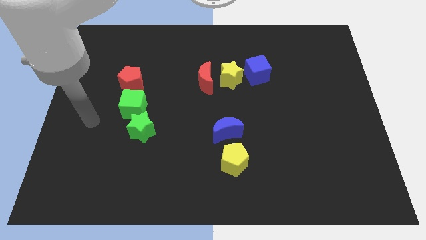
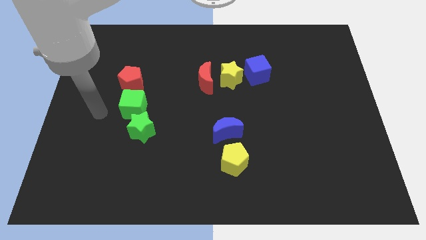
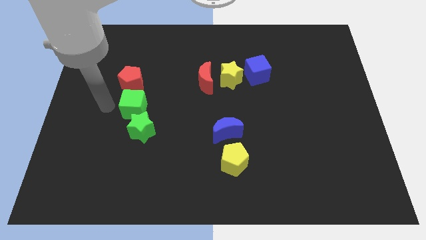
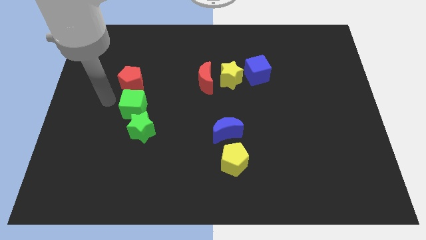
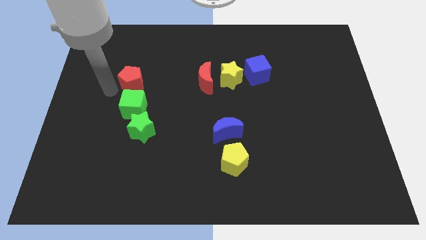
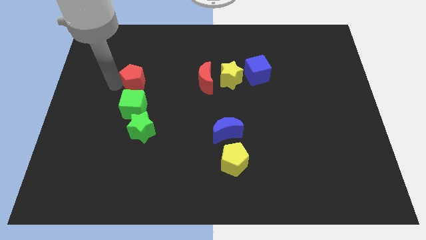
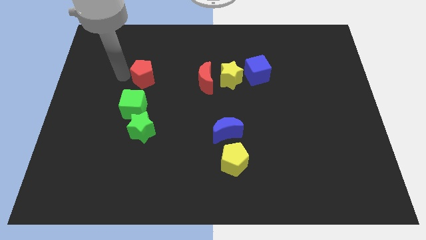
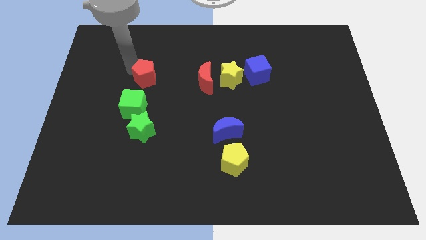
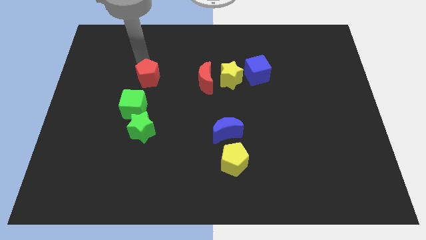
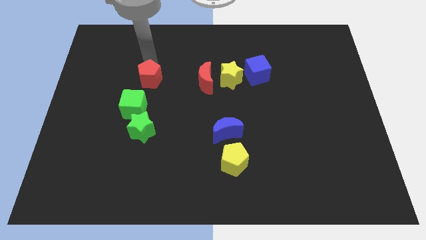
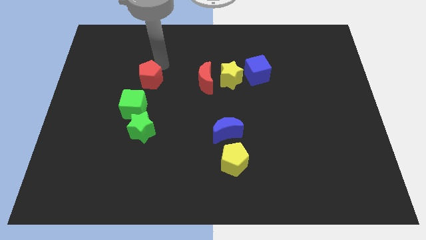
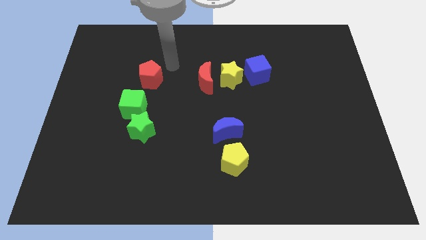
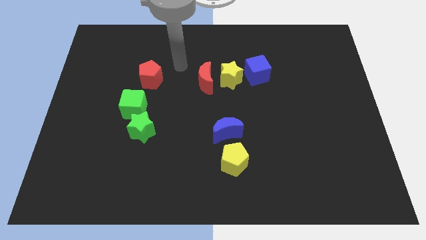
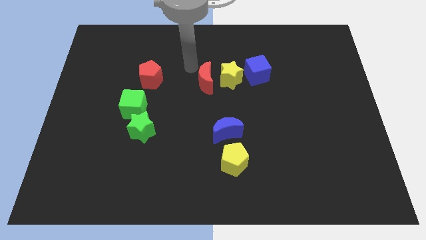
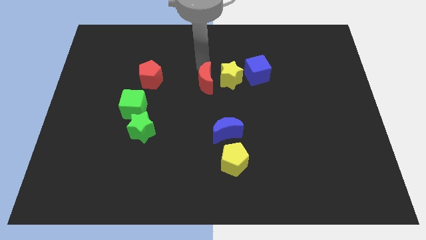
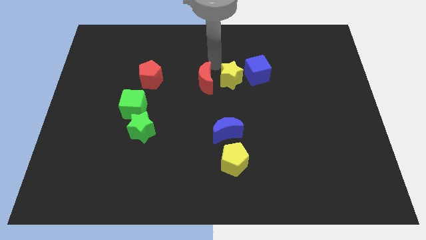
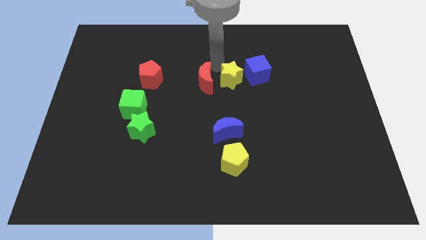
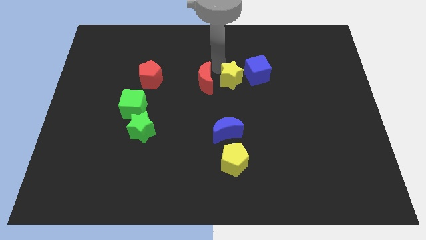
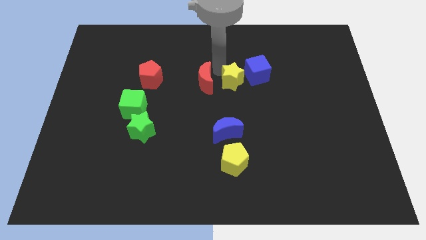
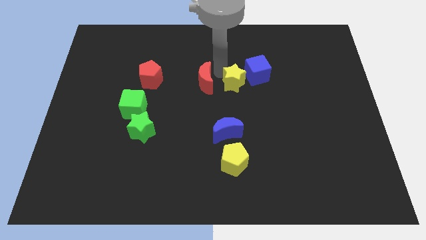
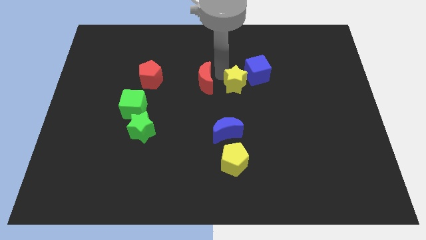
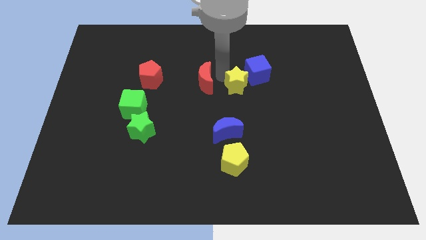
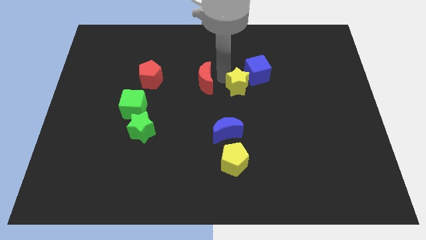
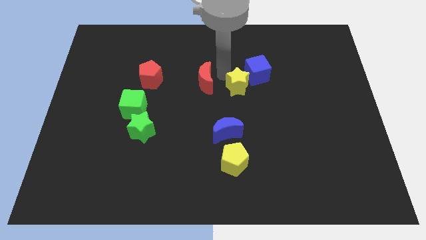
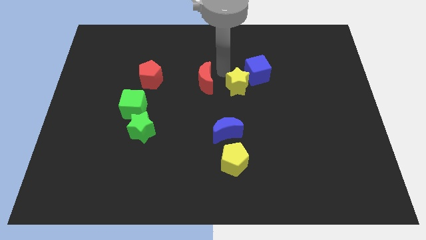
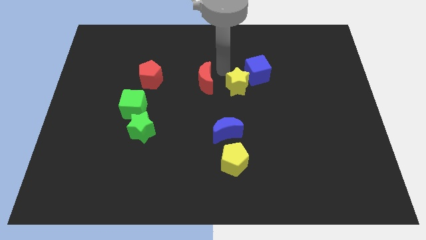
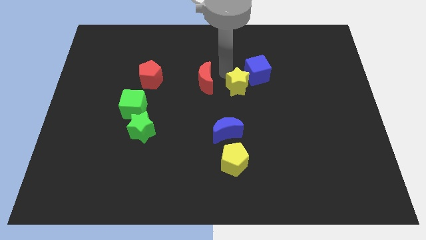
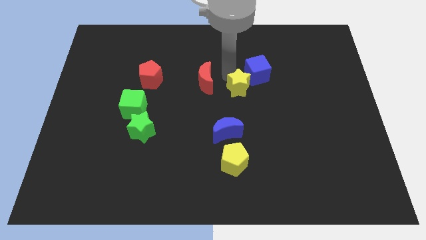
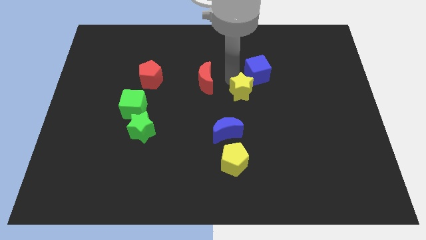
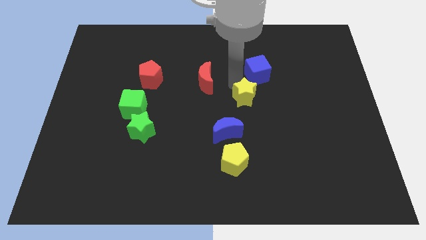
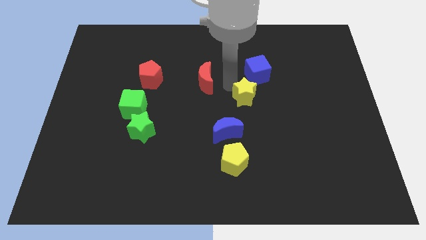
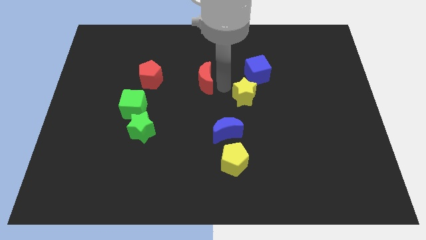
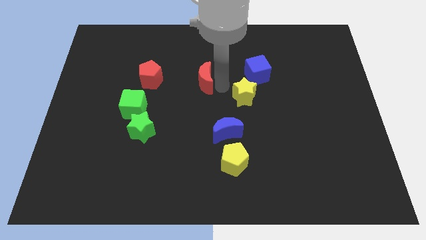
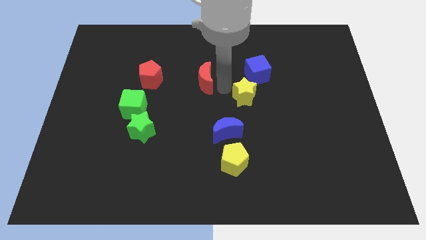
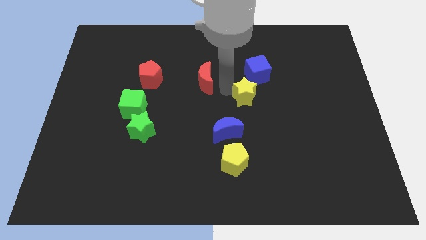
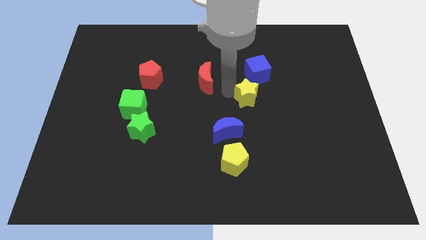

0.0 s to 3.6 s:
push the yellow star diagonally down and right slightly

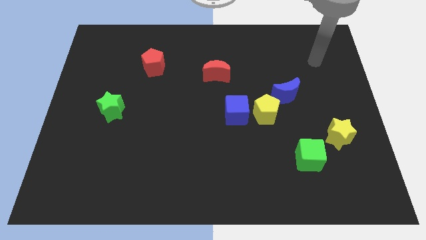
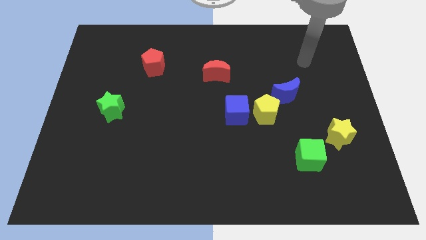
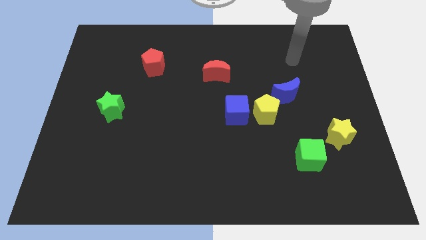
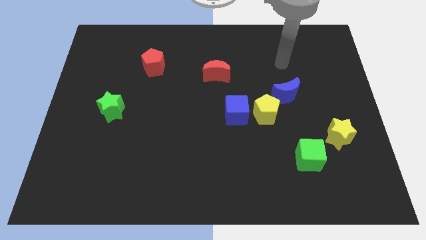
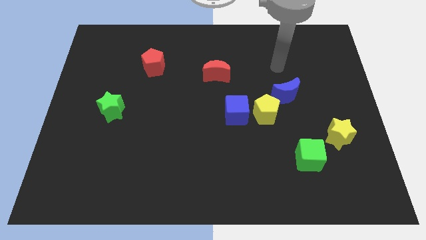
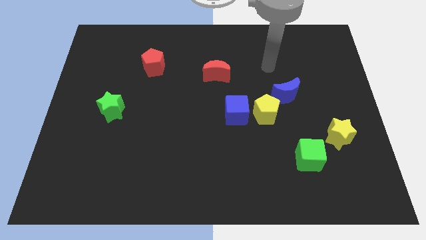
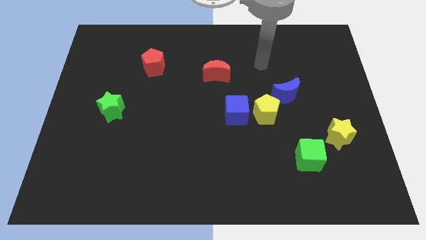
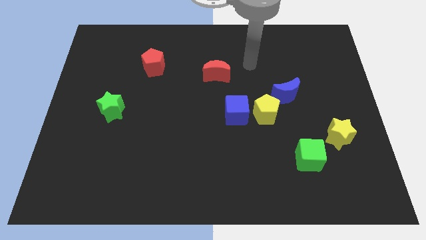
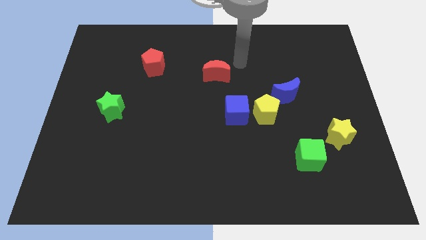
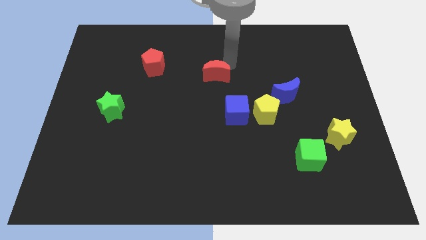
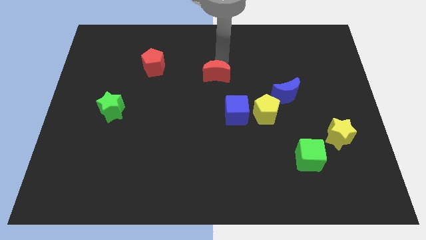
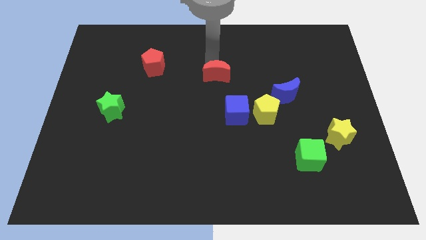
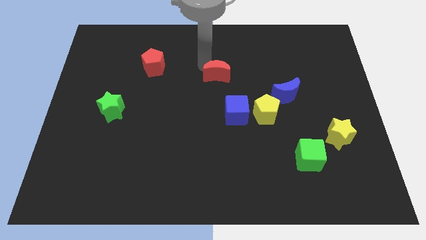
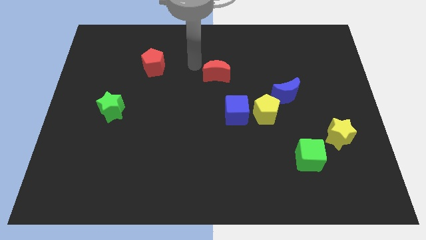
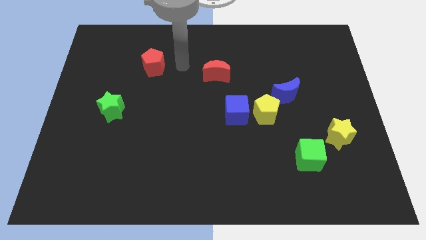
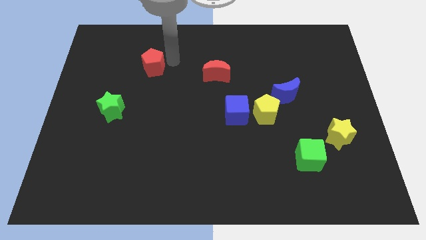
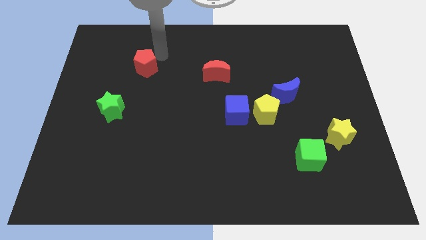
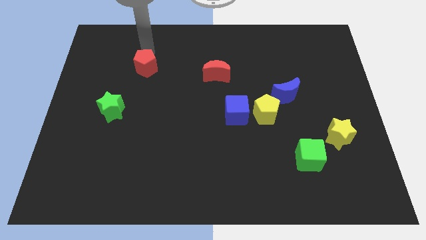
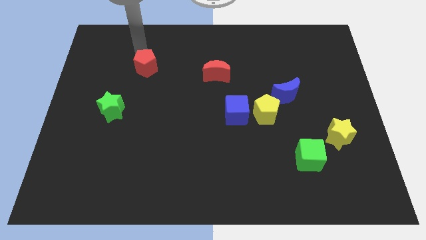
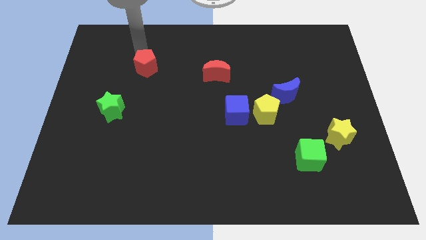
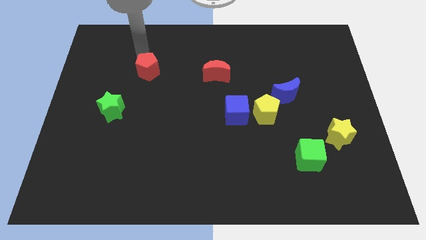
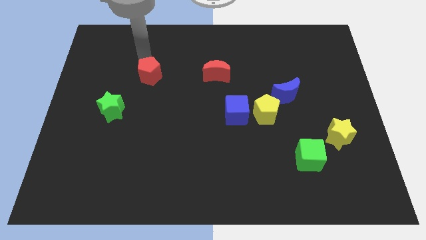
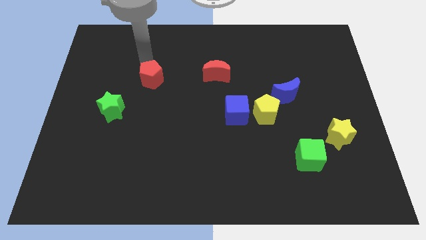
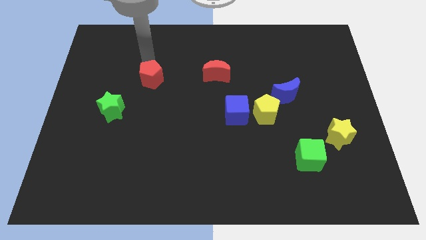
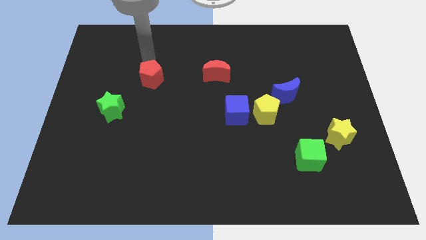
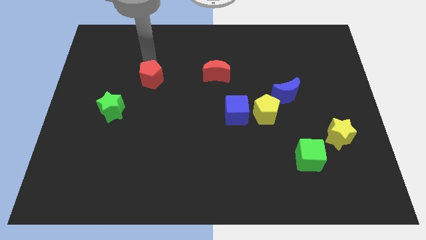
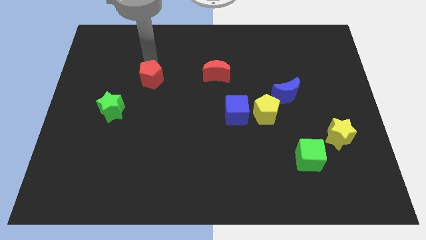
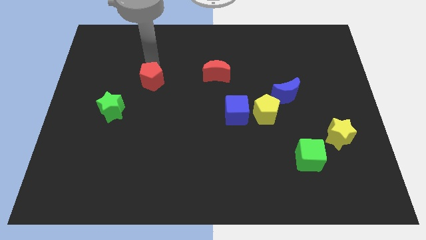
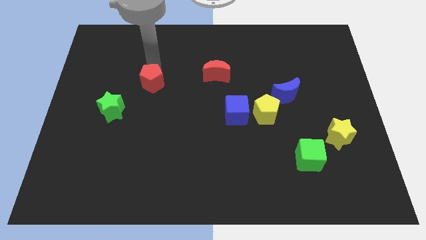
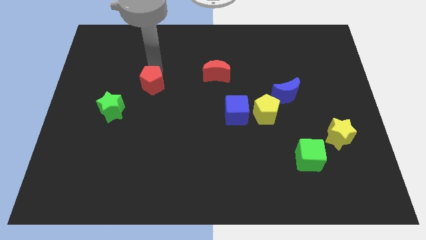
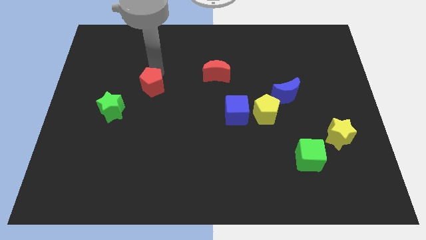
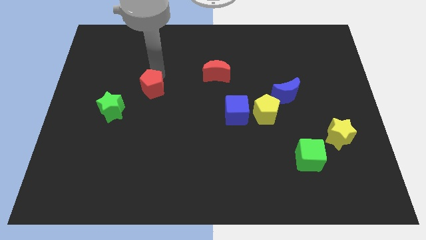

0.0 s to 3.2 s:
push the red pentagon a little down

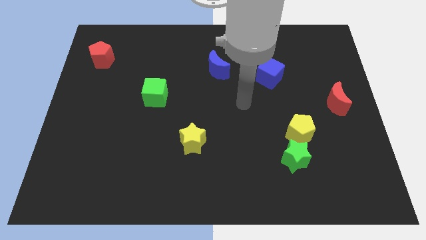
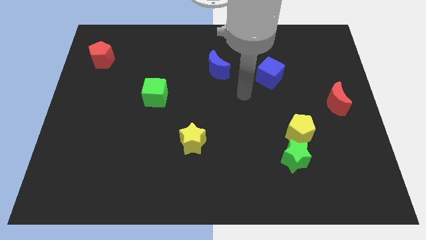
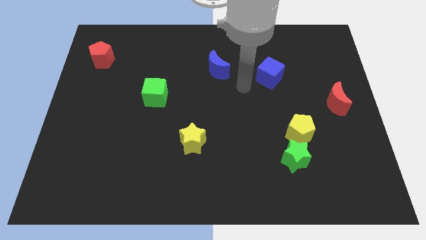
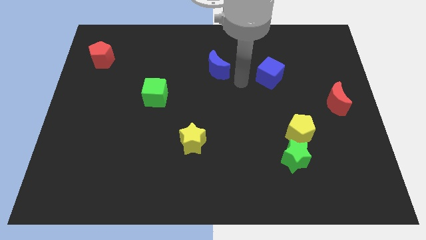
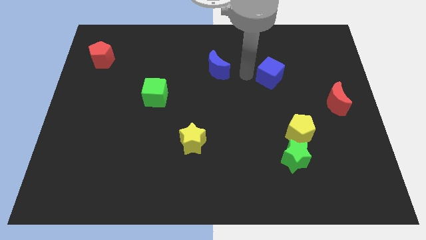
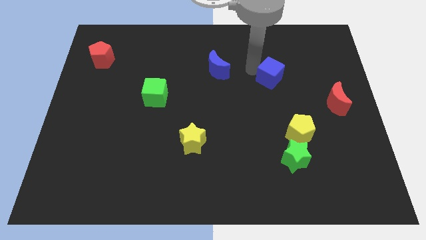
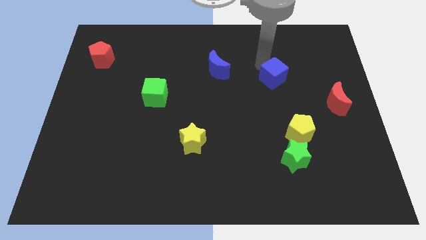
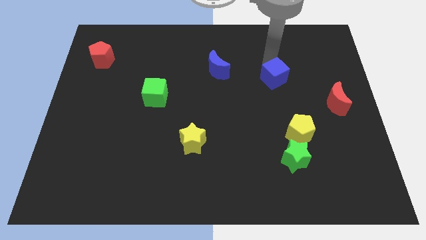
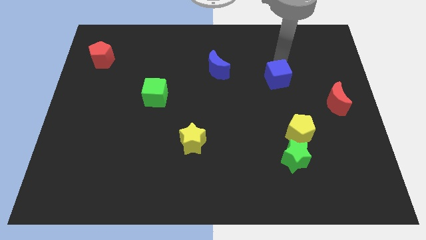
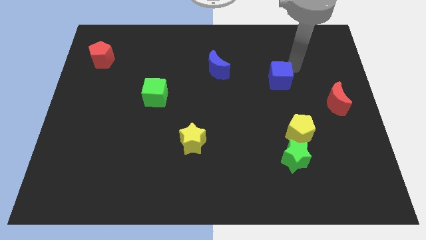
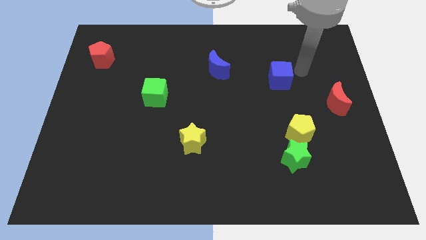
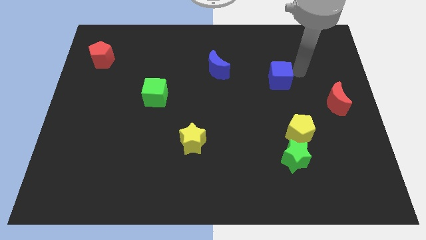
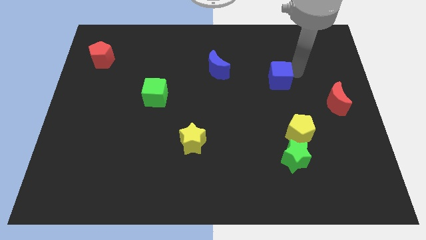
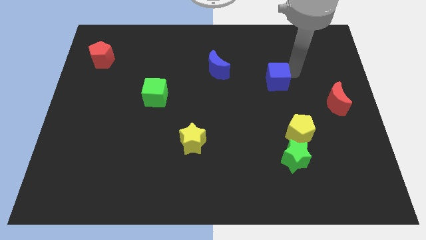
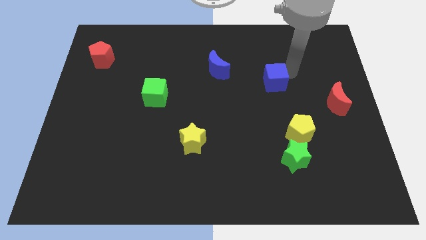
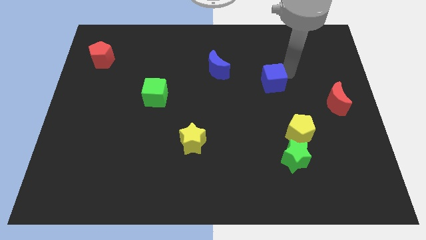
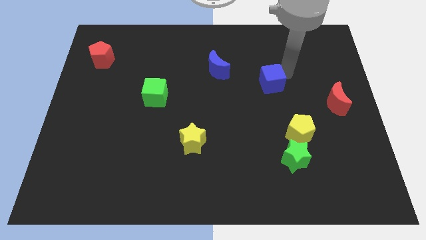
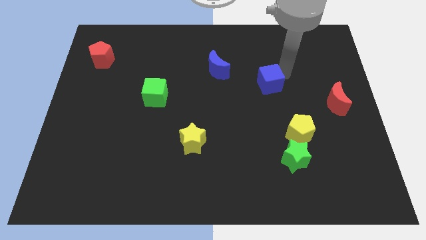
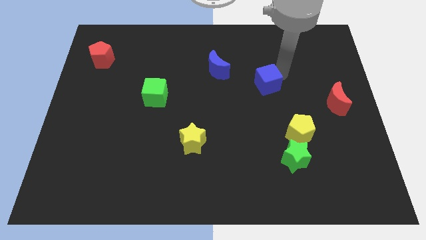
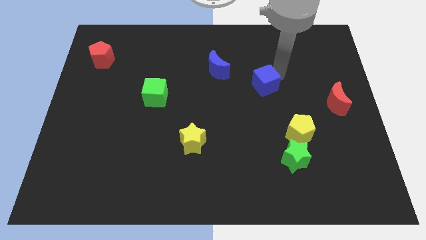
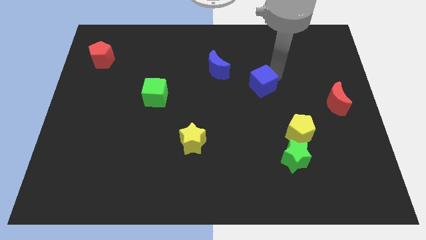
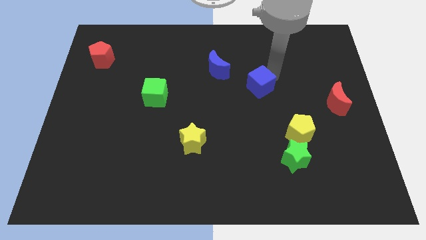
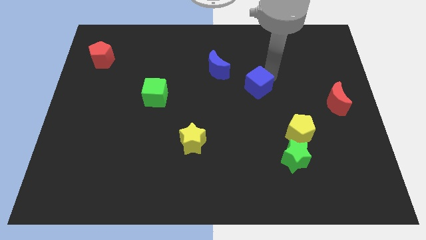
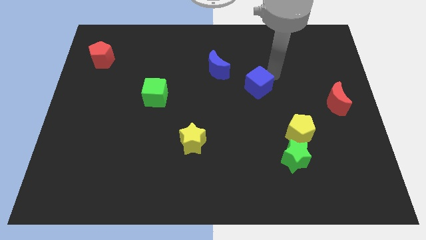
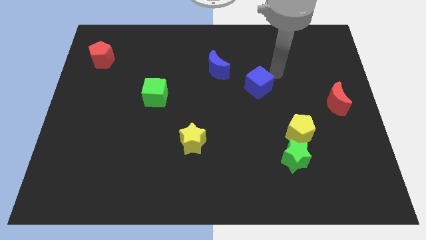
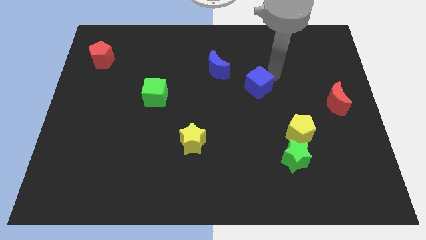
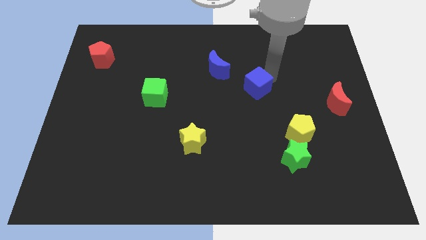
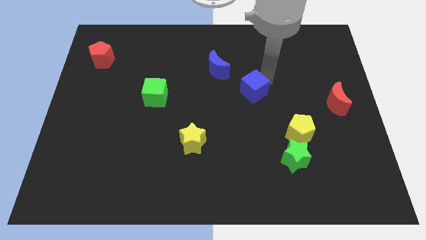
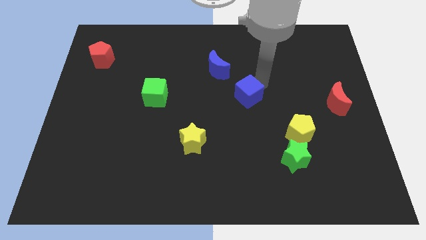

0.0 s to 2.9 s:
slide the blue cube downwards and left somewhat
